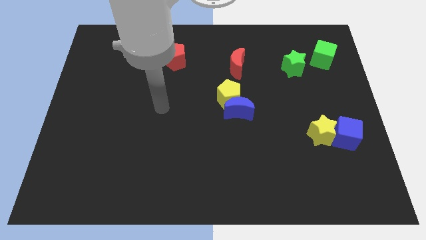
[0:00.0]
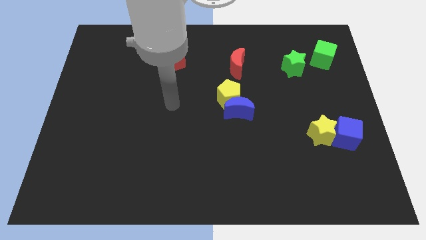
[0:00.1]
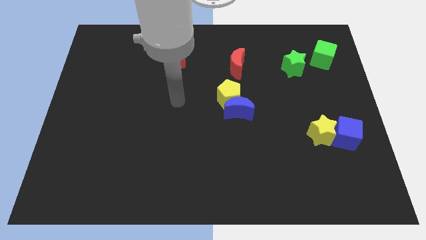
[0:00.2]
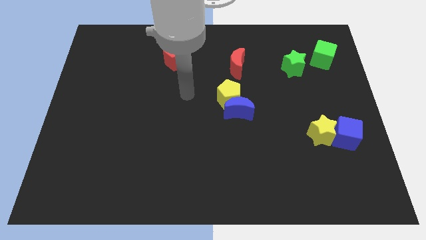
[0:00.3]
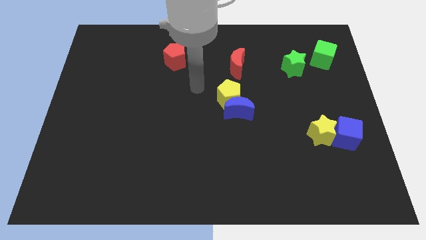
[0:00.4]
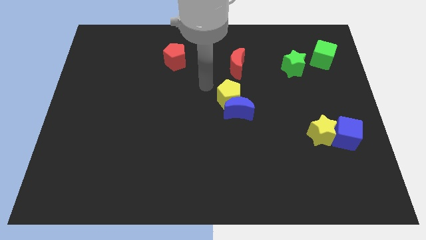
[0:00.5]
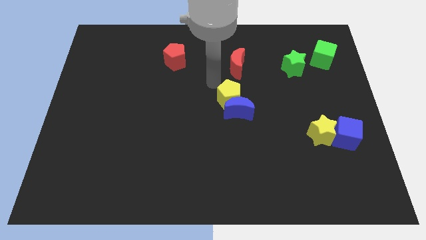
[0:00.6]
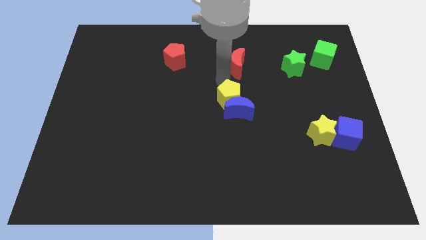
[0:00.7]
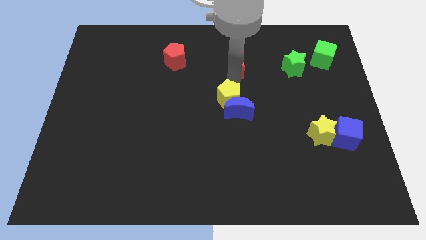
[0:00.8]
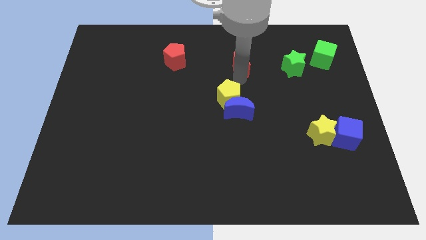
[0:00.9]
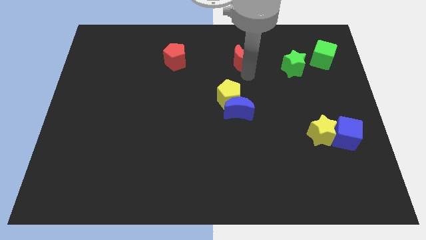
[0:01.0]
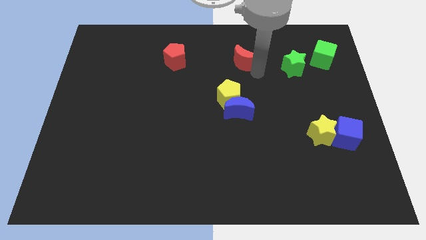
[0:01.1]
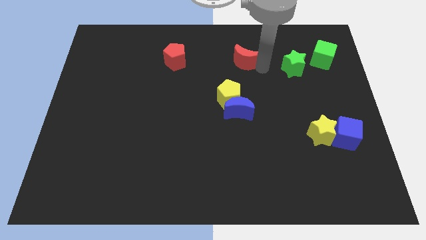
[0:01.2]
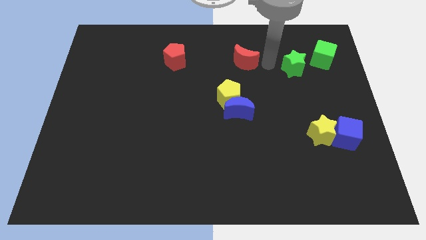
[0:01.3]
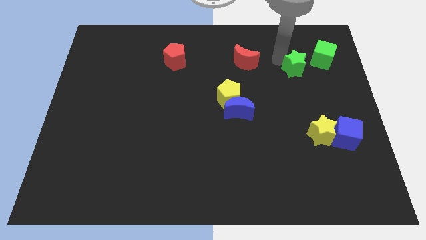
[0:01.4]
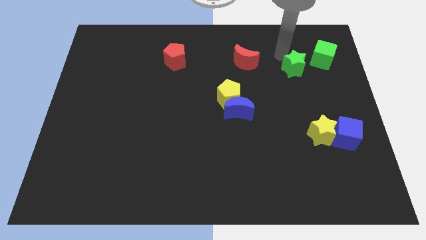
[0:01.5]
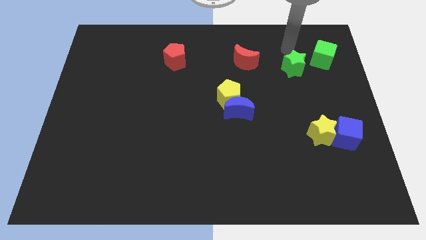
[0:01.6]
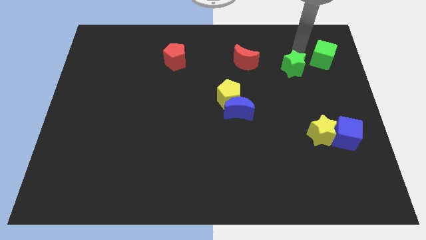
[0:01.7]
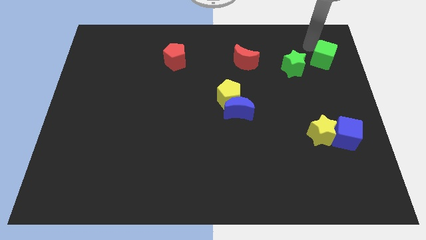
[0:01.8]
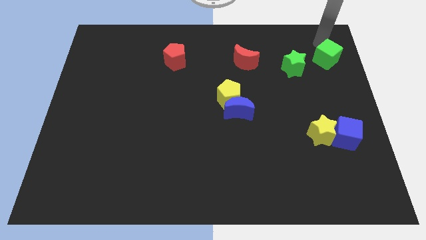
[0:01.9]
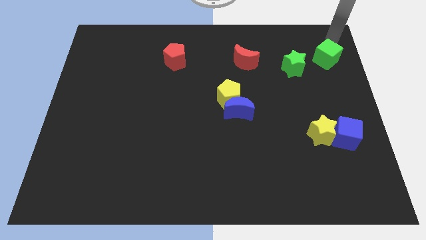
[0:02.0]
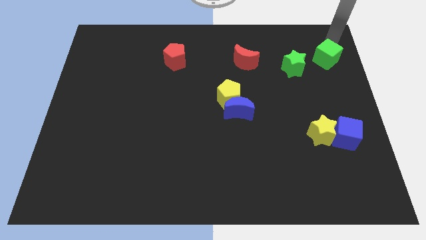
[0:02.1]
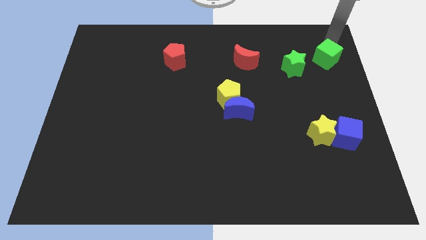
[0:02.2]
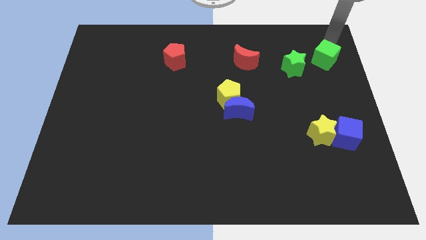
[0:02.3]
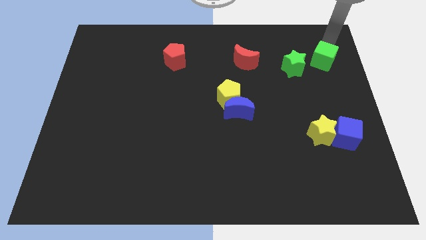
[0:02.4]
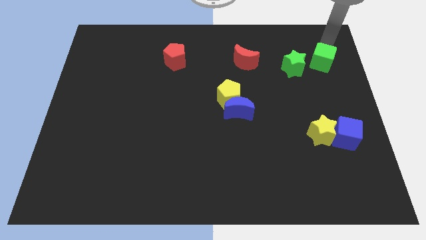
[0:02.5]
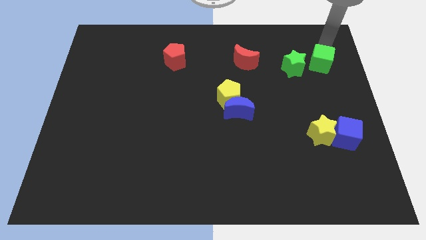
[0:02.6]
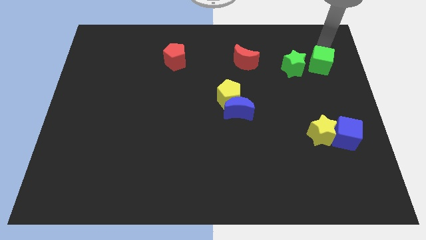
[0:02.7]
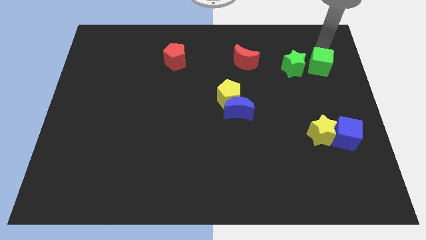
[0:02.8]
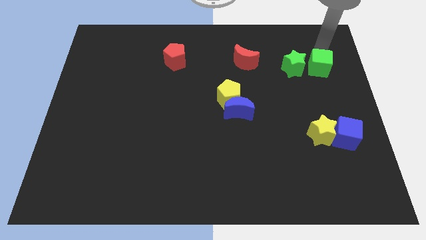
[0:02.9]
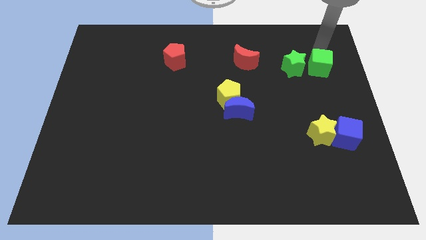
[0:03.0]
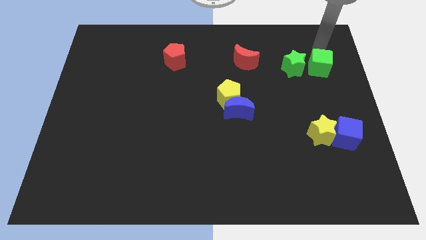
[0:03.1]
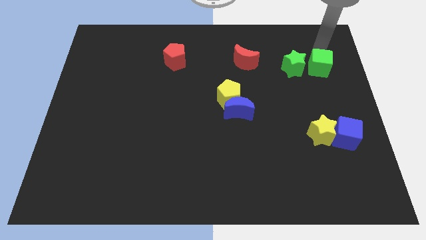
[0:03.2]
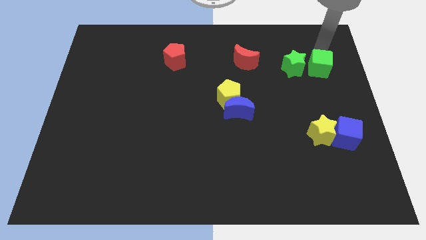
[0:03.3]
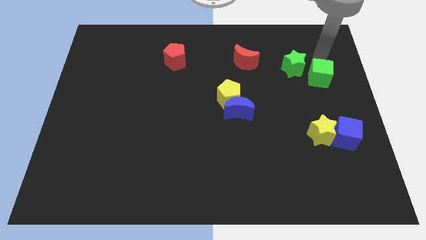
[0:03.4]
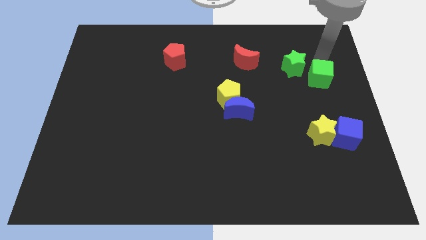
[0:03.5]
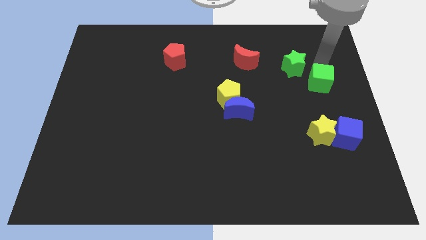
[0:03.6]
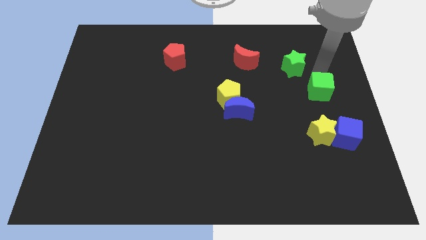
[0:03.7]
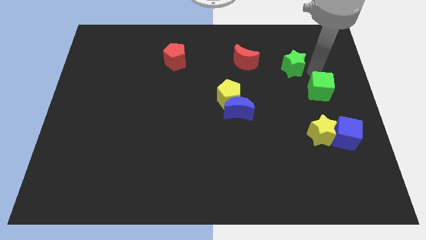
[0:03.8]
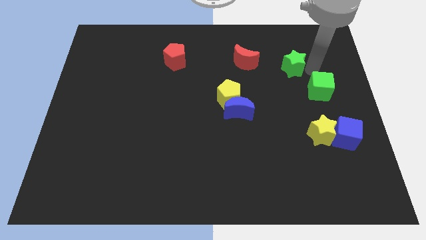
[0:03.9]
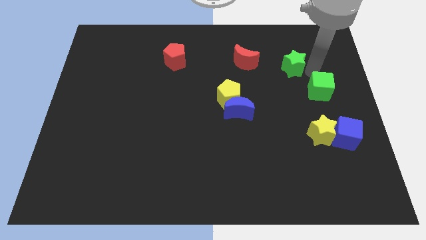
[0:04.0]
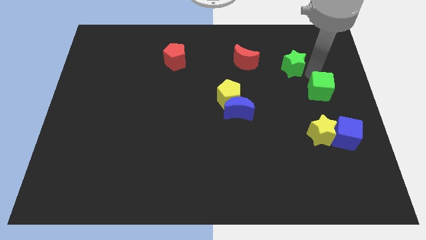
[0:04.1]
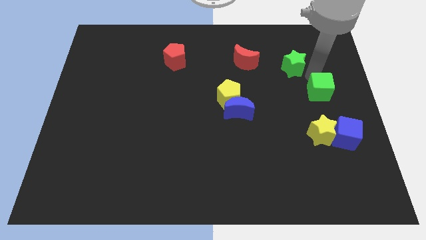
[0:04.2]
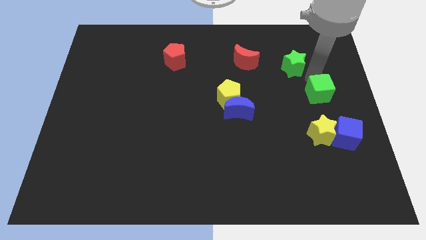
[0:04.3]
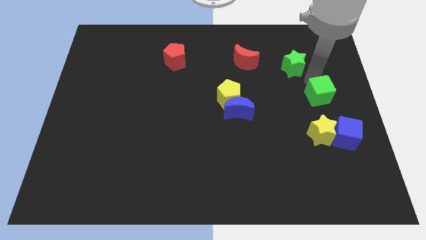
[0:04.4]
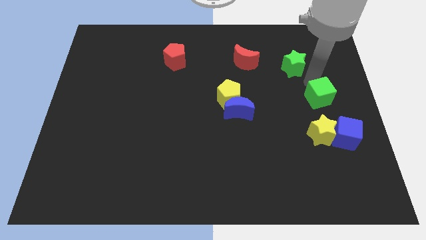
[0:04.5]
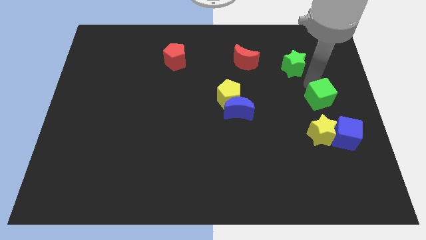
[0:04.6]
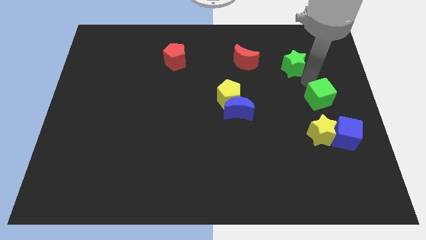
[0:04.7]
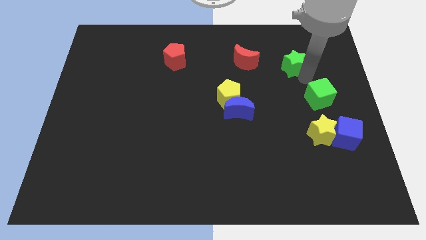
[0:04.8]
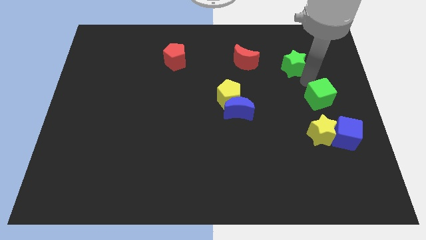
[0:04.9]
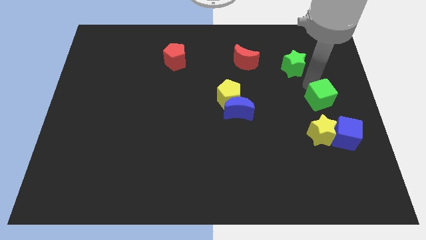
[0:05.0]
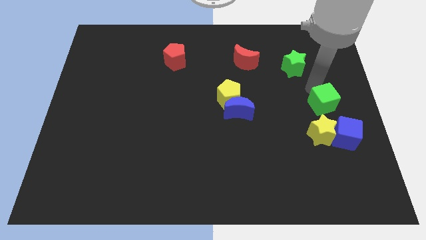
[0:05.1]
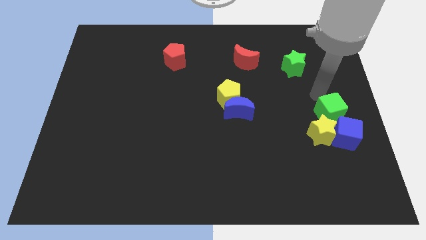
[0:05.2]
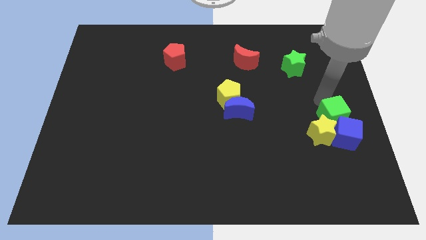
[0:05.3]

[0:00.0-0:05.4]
push the green cube towards the blue cube

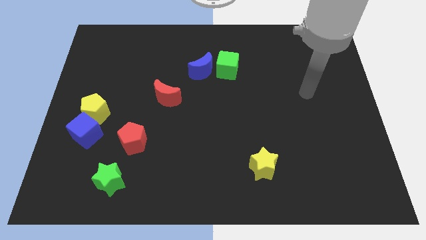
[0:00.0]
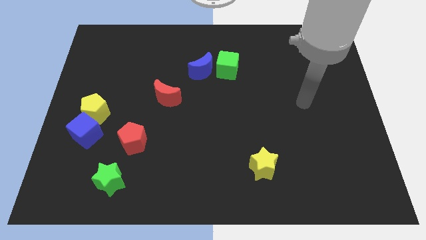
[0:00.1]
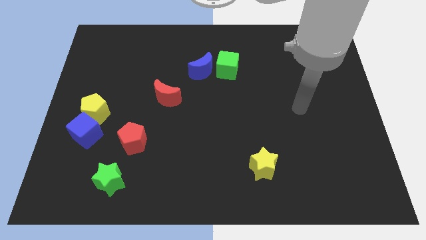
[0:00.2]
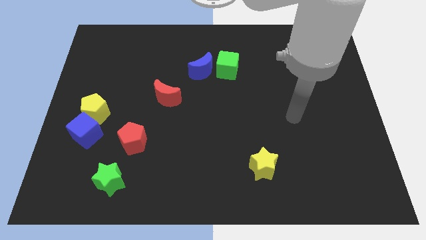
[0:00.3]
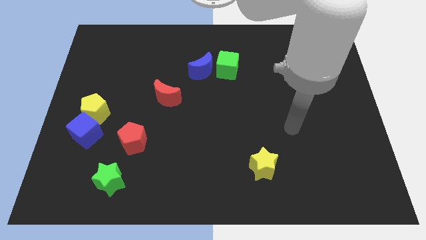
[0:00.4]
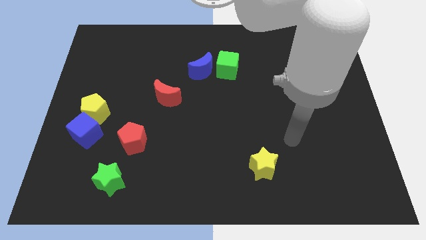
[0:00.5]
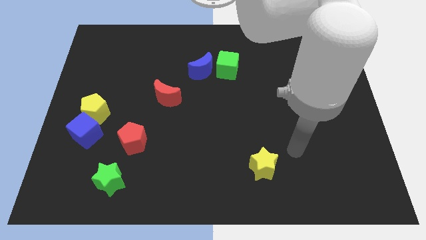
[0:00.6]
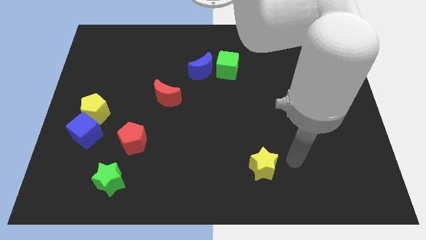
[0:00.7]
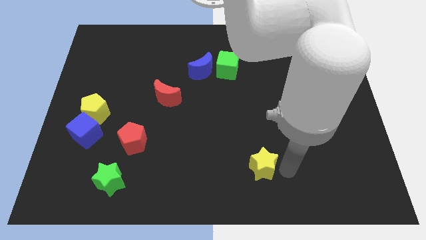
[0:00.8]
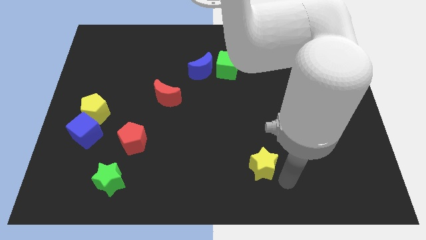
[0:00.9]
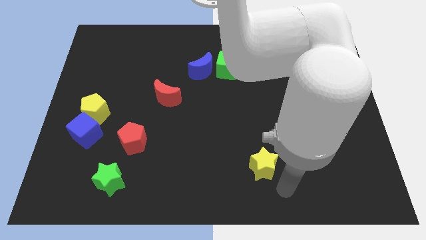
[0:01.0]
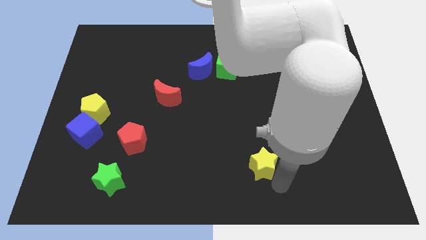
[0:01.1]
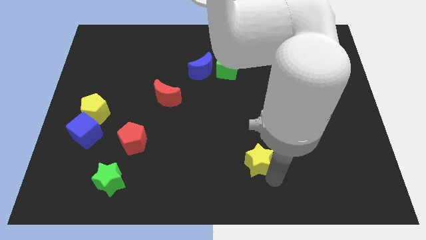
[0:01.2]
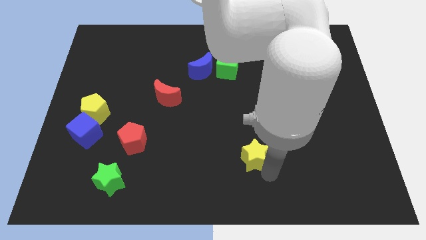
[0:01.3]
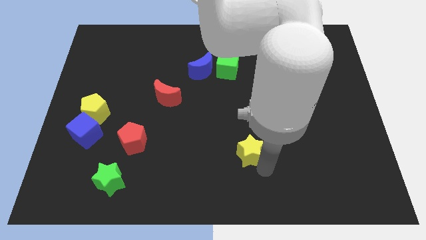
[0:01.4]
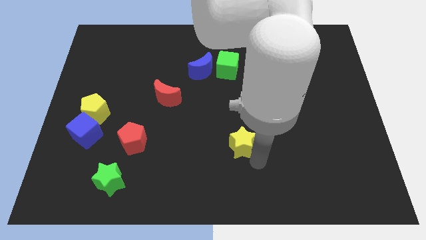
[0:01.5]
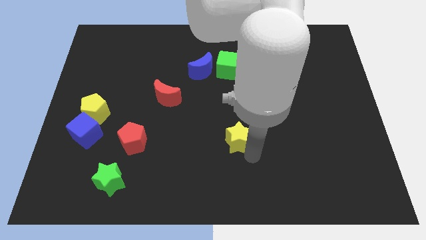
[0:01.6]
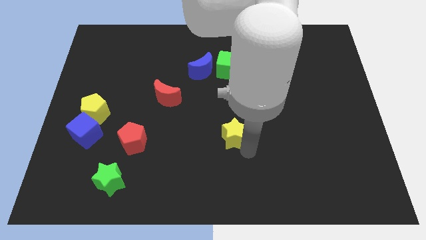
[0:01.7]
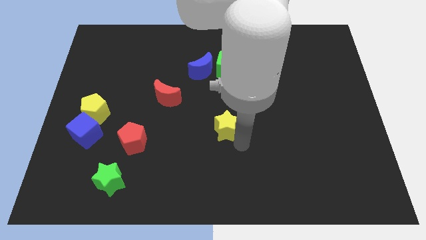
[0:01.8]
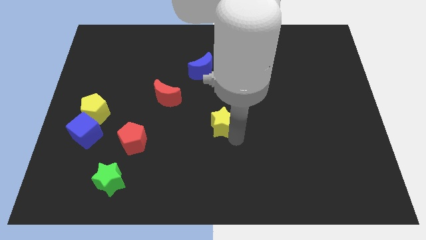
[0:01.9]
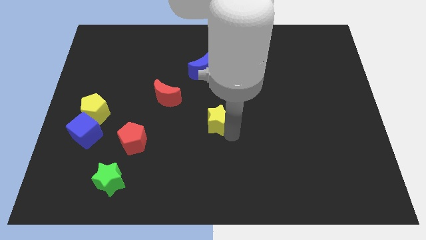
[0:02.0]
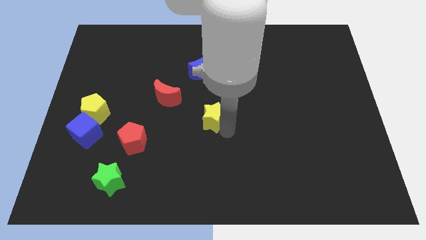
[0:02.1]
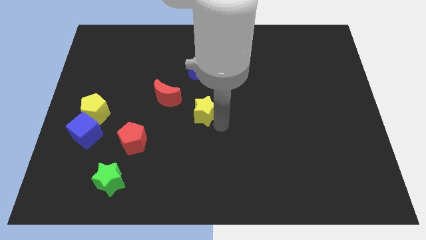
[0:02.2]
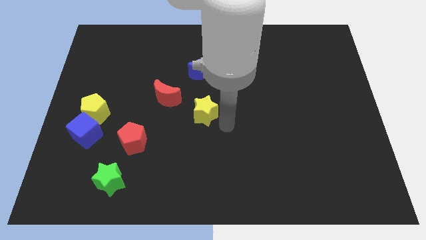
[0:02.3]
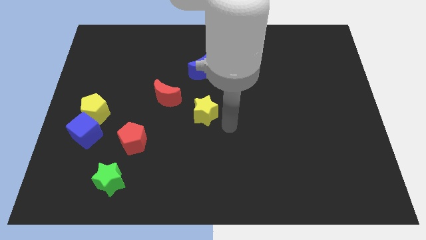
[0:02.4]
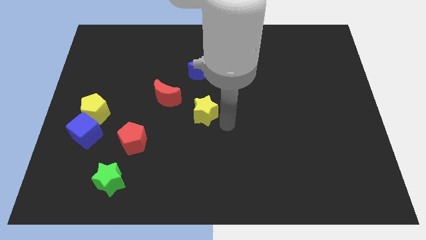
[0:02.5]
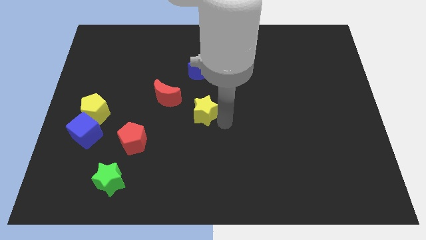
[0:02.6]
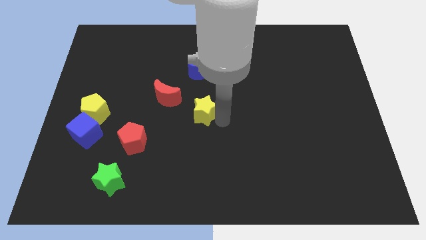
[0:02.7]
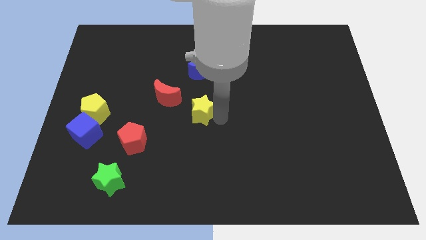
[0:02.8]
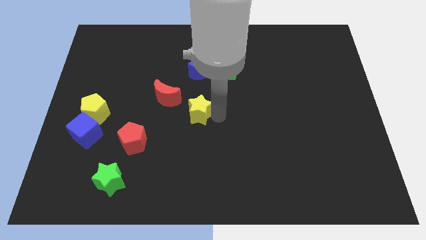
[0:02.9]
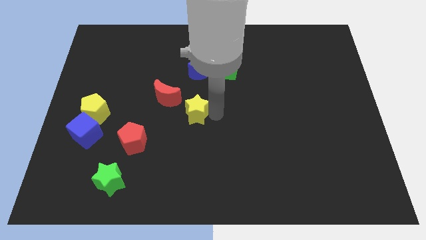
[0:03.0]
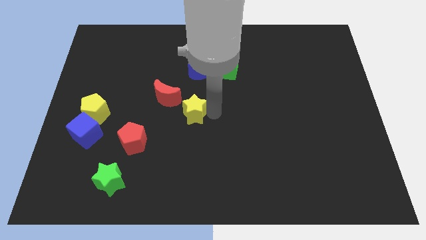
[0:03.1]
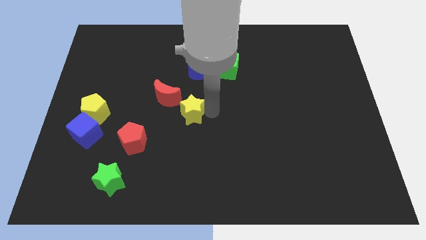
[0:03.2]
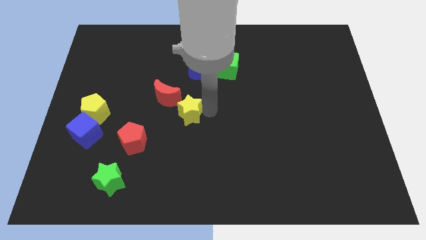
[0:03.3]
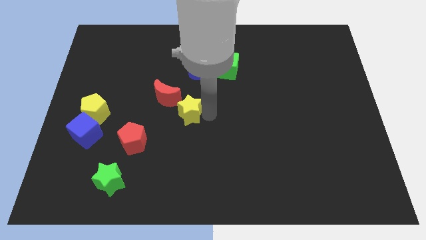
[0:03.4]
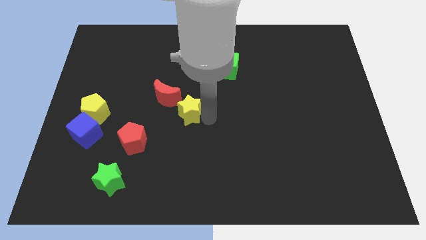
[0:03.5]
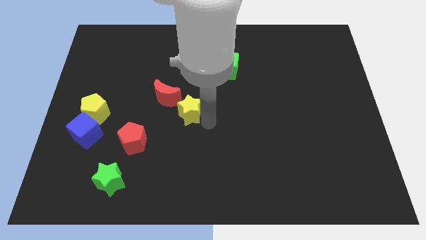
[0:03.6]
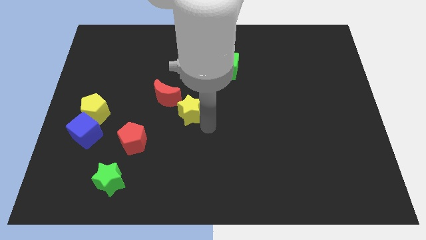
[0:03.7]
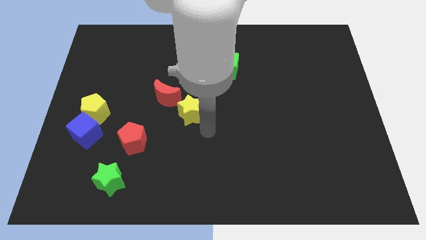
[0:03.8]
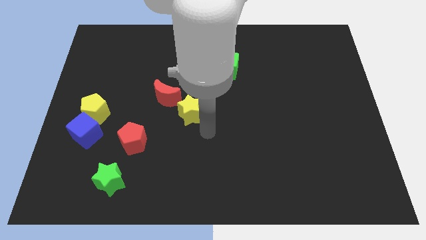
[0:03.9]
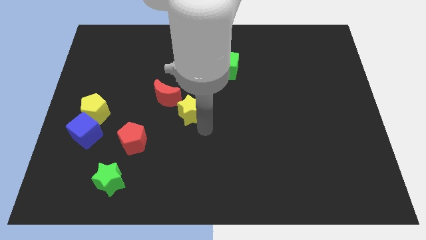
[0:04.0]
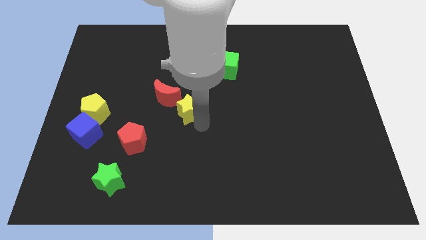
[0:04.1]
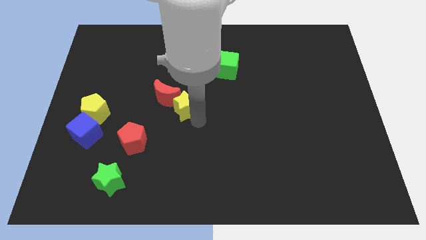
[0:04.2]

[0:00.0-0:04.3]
push the yellow star next to the red moon
